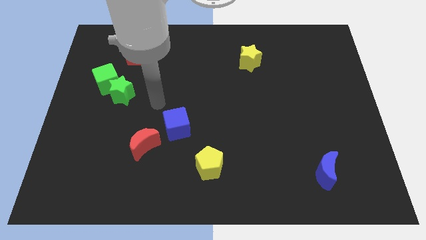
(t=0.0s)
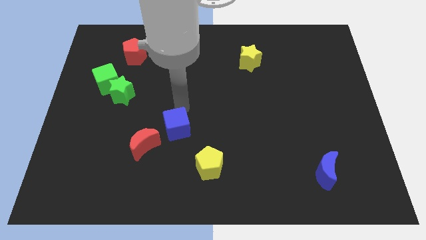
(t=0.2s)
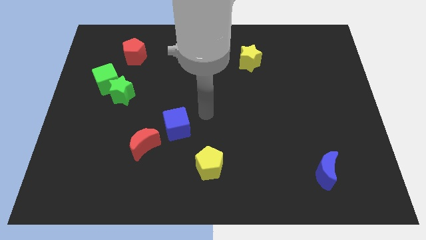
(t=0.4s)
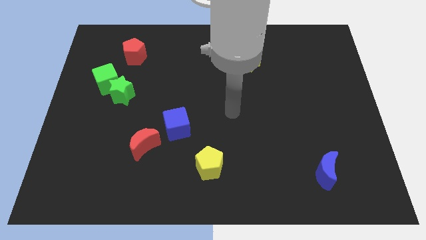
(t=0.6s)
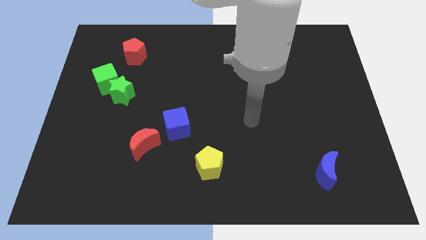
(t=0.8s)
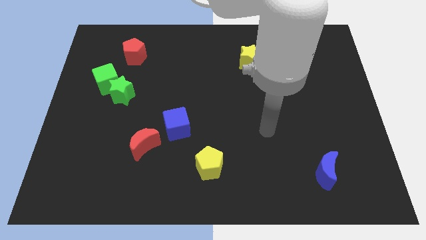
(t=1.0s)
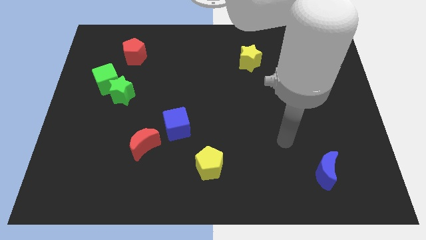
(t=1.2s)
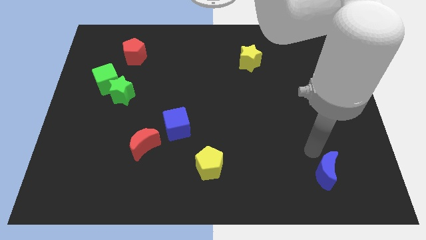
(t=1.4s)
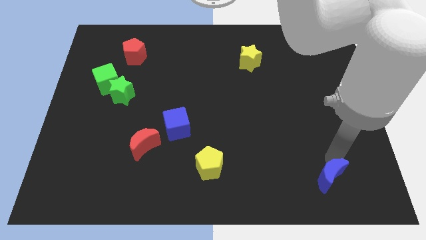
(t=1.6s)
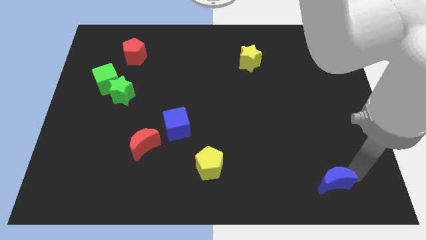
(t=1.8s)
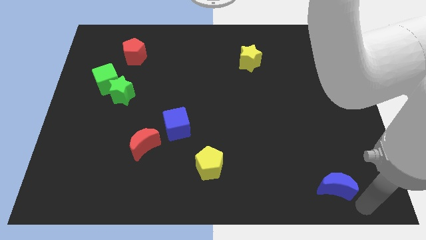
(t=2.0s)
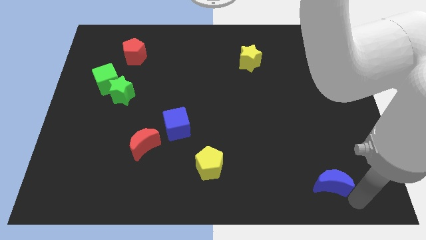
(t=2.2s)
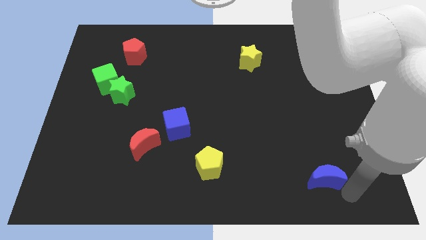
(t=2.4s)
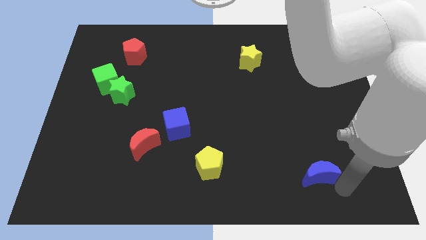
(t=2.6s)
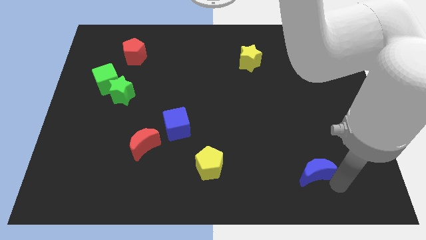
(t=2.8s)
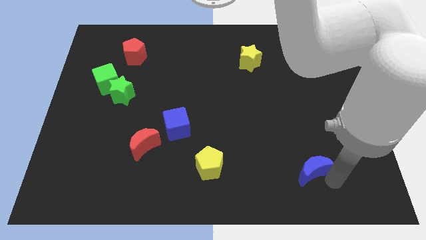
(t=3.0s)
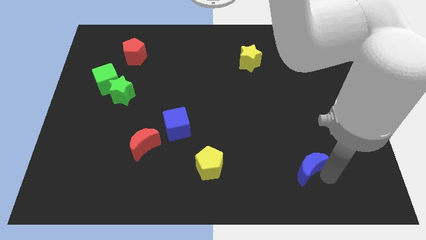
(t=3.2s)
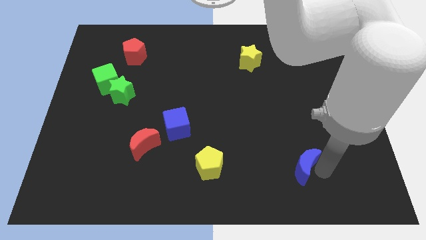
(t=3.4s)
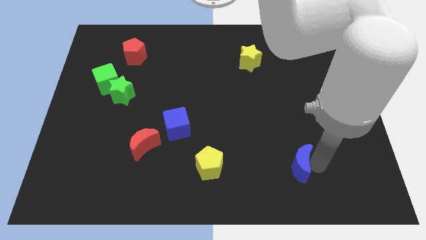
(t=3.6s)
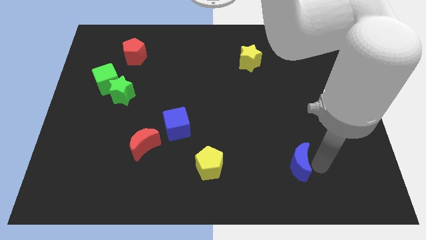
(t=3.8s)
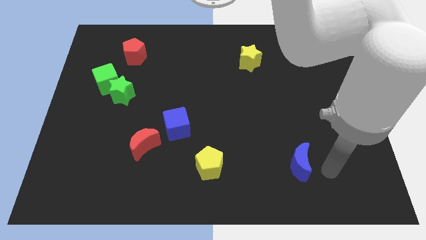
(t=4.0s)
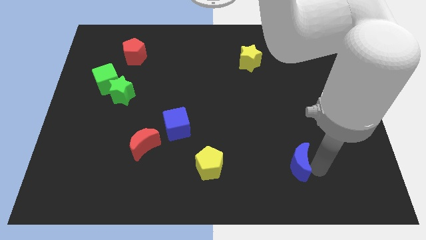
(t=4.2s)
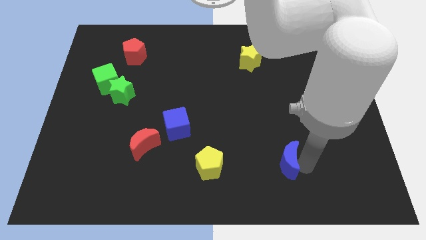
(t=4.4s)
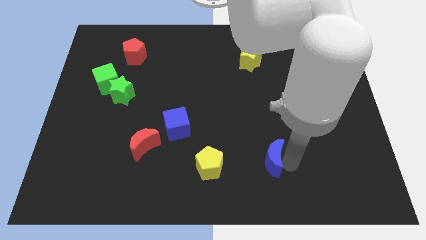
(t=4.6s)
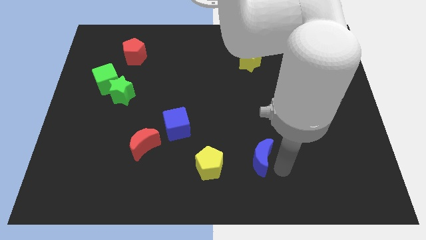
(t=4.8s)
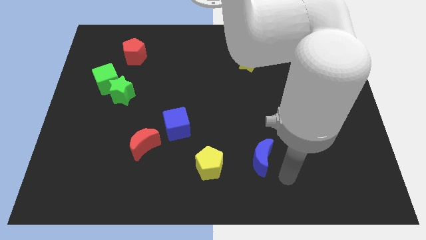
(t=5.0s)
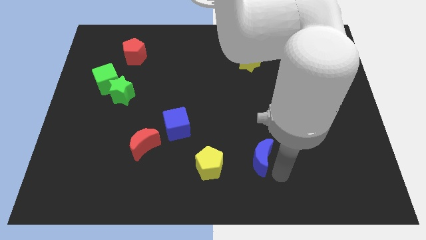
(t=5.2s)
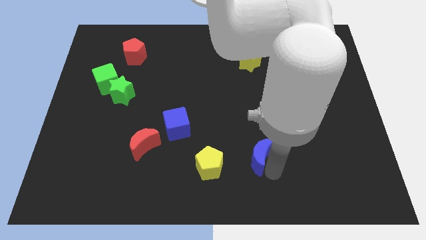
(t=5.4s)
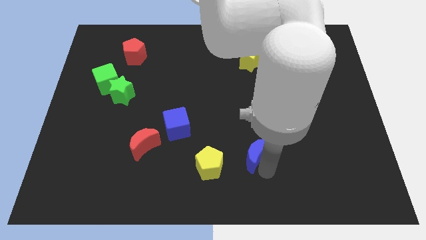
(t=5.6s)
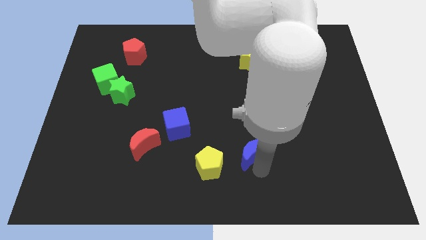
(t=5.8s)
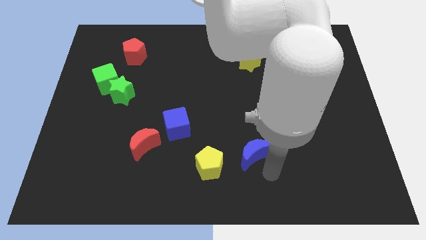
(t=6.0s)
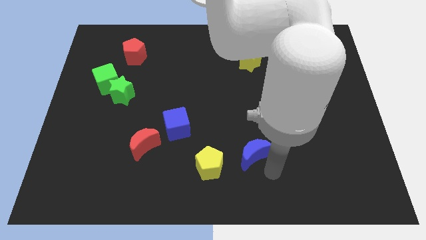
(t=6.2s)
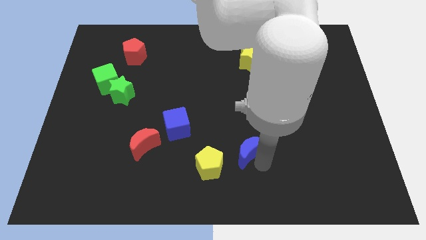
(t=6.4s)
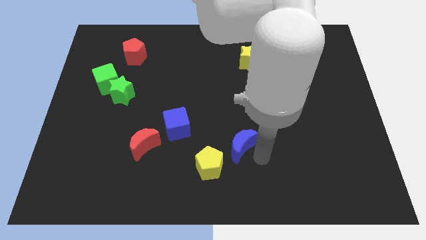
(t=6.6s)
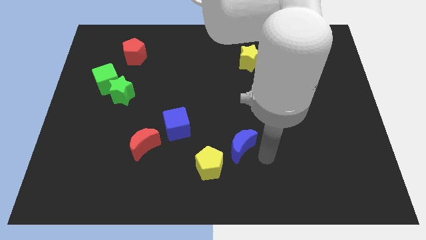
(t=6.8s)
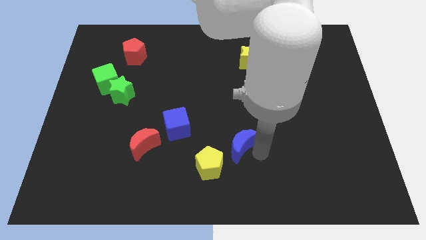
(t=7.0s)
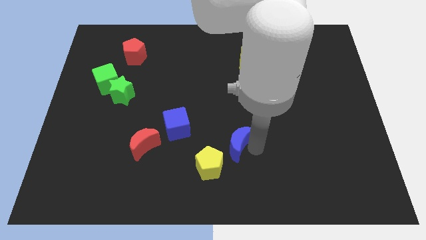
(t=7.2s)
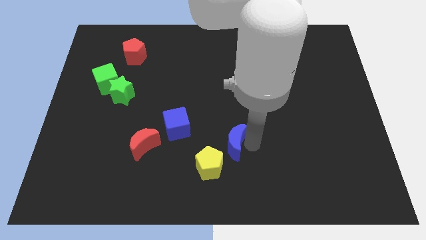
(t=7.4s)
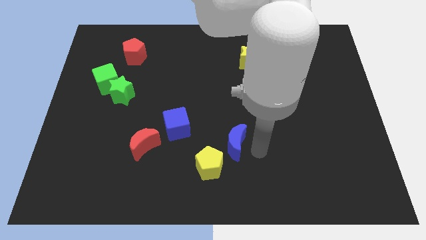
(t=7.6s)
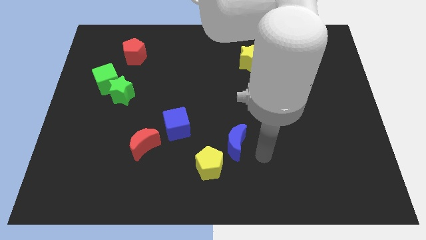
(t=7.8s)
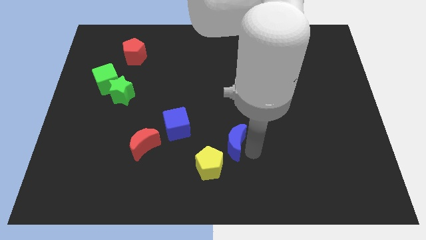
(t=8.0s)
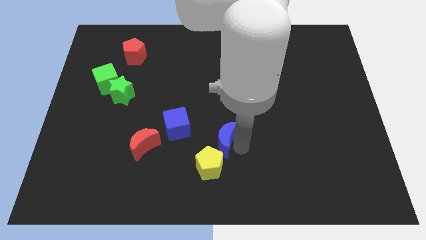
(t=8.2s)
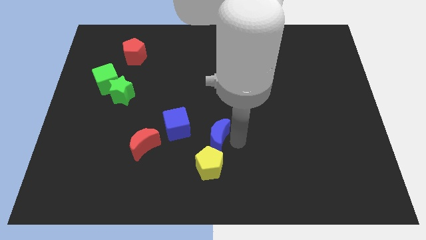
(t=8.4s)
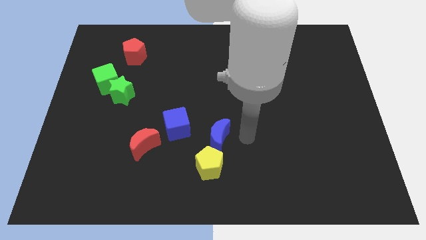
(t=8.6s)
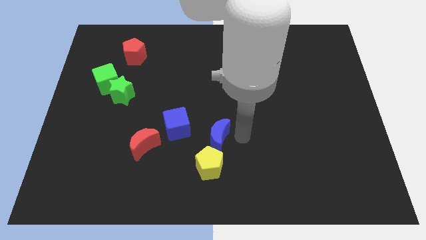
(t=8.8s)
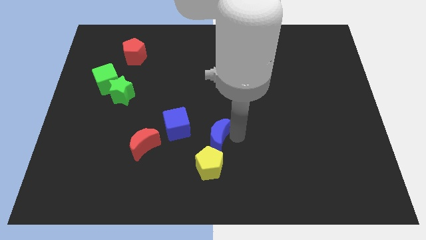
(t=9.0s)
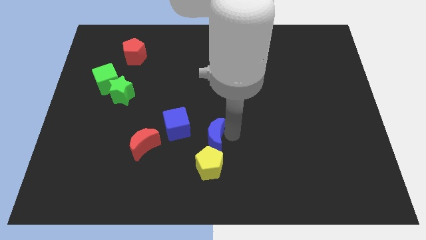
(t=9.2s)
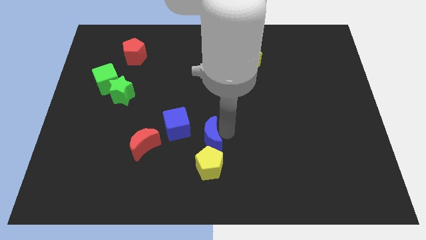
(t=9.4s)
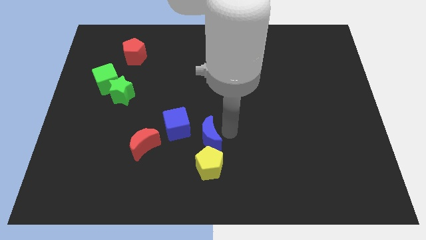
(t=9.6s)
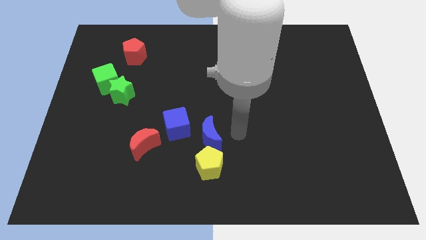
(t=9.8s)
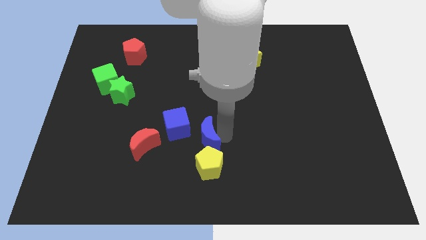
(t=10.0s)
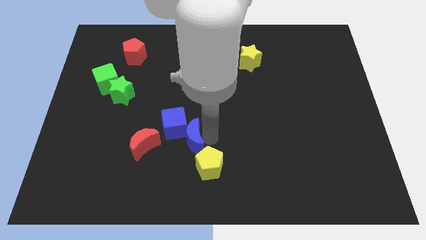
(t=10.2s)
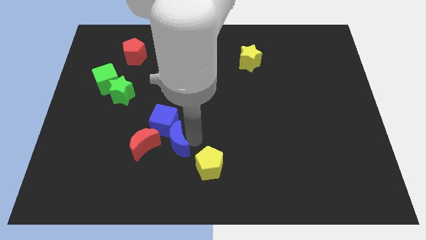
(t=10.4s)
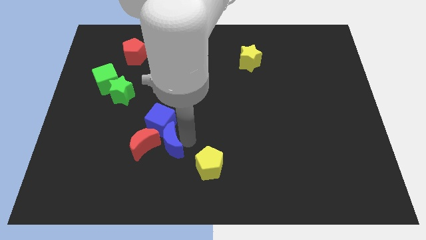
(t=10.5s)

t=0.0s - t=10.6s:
move the blue moon towards the red moon

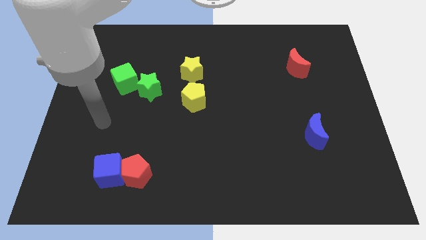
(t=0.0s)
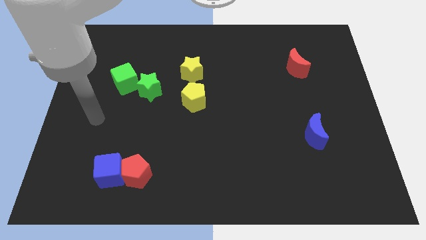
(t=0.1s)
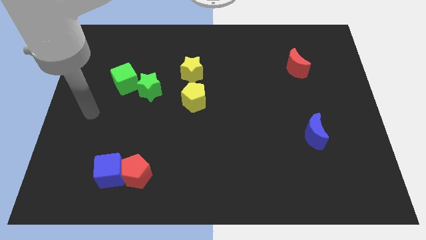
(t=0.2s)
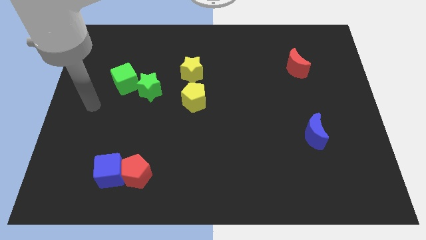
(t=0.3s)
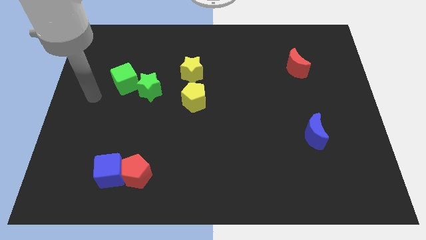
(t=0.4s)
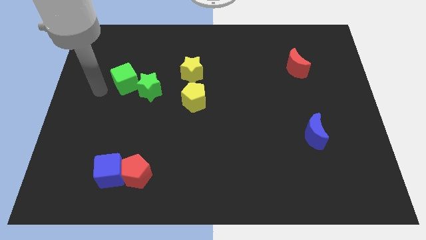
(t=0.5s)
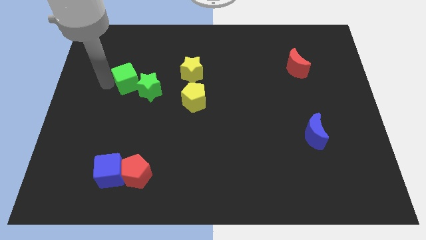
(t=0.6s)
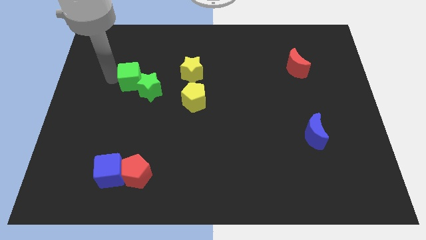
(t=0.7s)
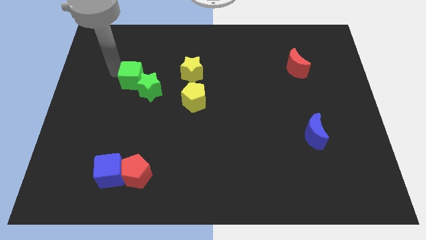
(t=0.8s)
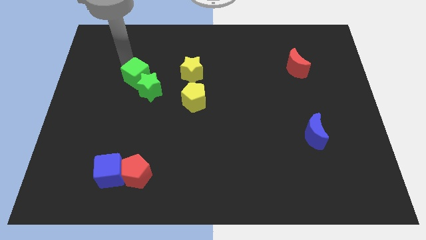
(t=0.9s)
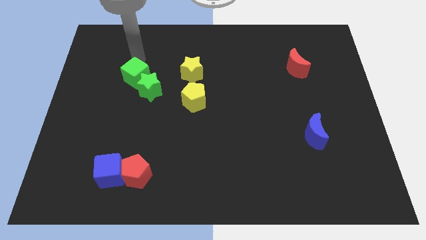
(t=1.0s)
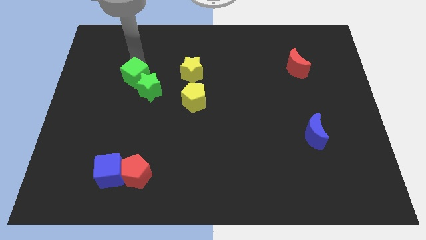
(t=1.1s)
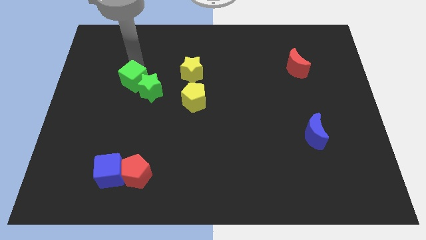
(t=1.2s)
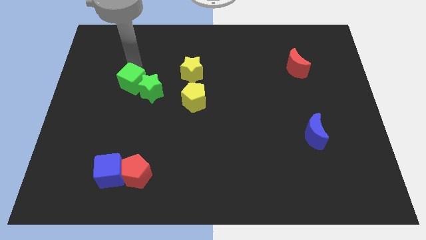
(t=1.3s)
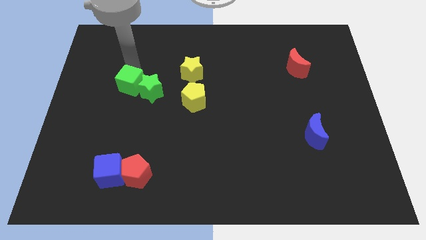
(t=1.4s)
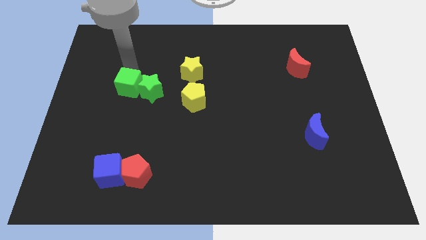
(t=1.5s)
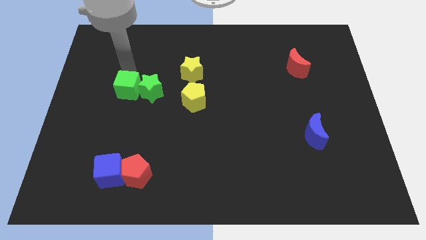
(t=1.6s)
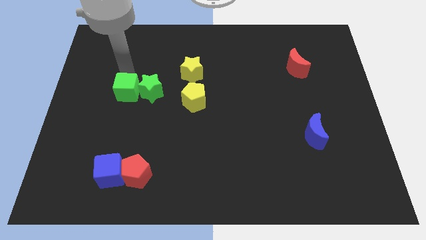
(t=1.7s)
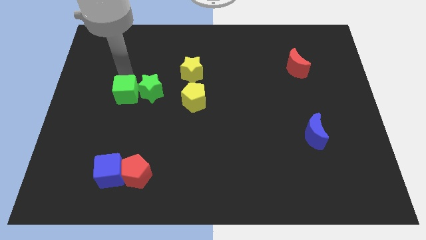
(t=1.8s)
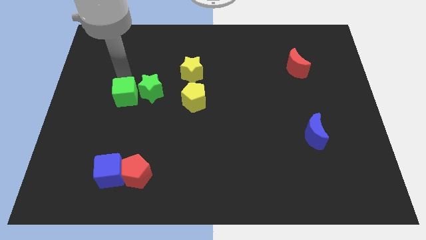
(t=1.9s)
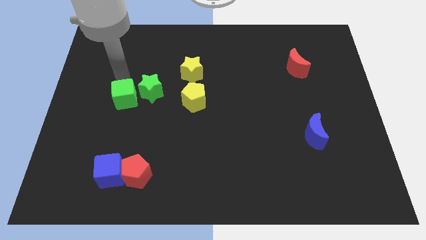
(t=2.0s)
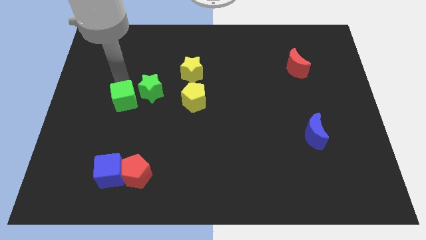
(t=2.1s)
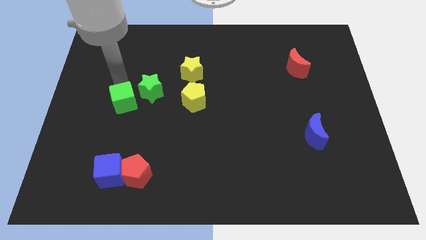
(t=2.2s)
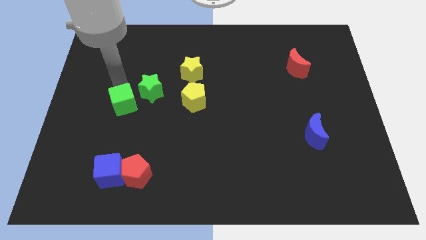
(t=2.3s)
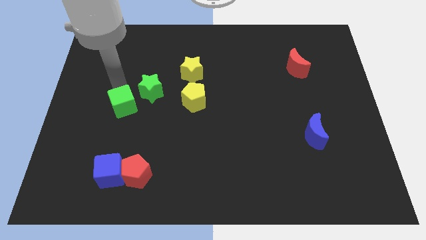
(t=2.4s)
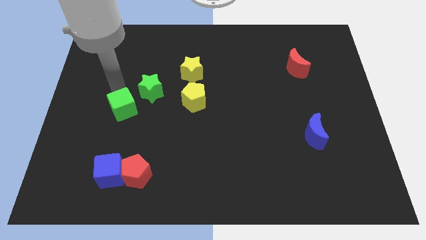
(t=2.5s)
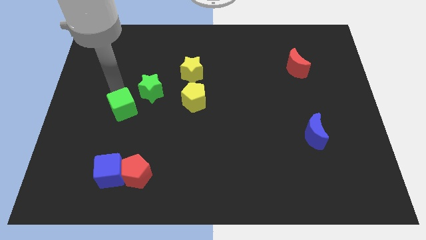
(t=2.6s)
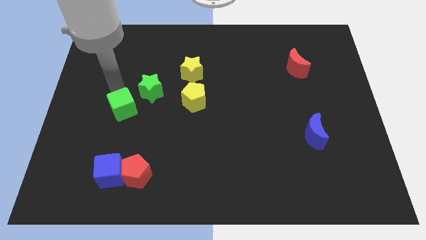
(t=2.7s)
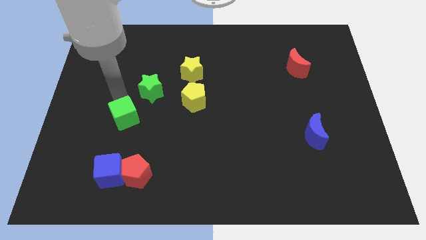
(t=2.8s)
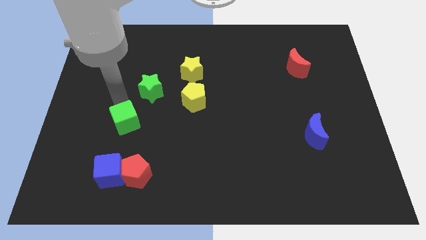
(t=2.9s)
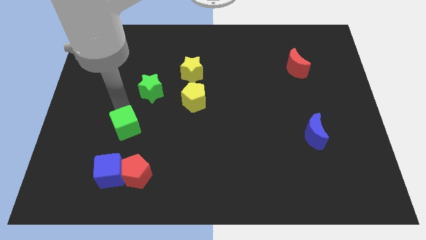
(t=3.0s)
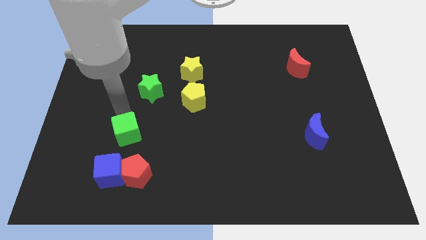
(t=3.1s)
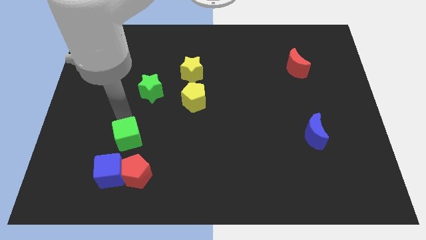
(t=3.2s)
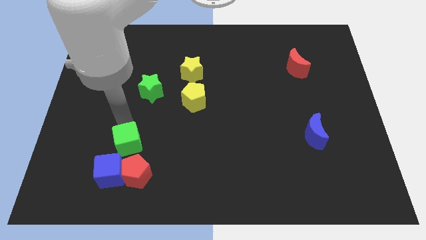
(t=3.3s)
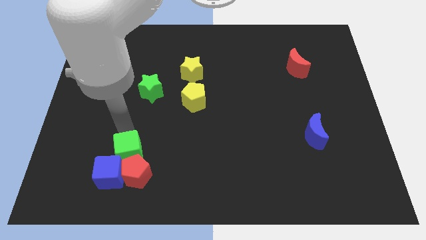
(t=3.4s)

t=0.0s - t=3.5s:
push the green cube towards the red pentagon
